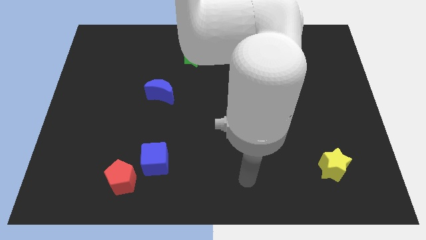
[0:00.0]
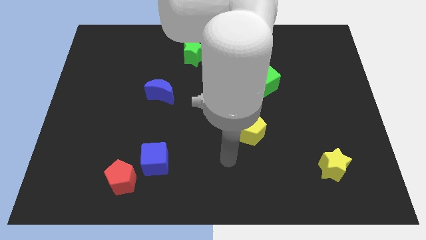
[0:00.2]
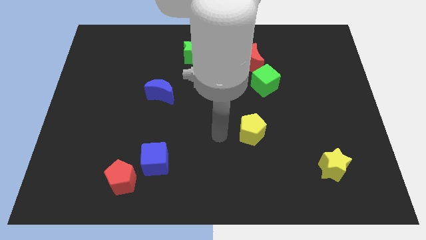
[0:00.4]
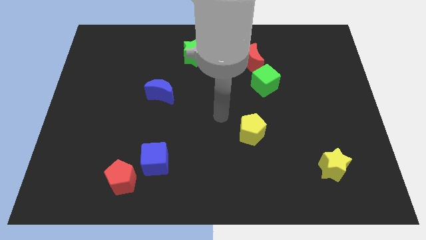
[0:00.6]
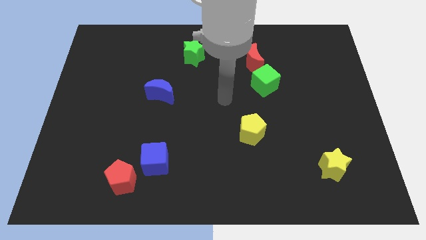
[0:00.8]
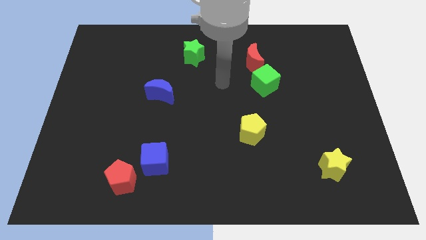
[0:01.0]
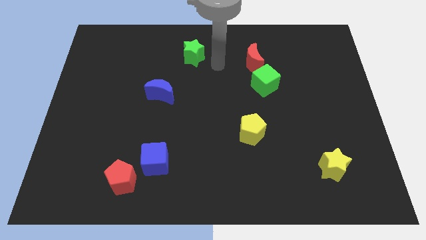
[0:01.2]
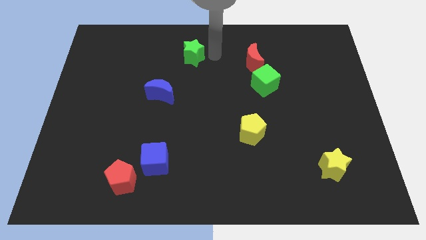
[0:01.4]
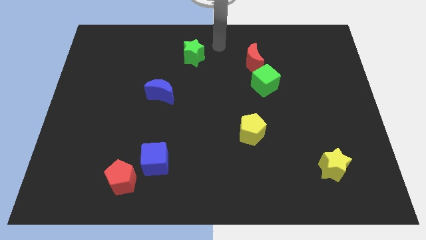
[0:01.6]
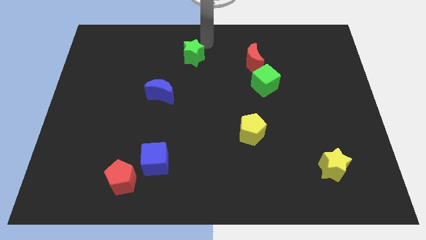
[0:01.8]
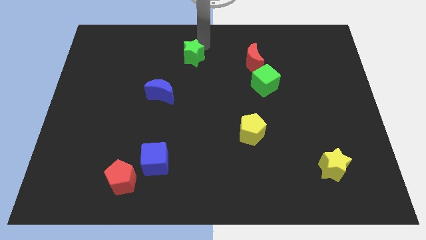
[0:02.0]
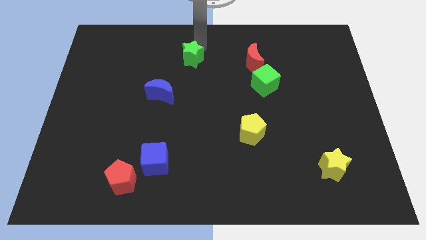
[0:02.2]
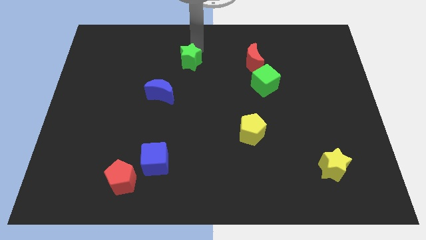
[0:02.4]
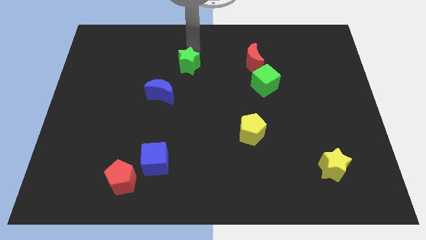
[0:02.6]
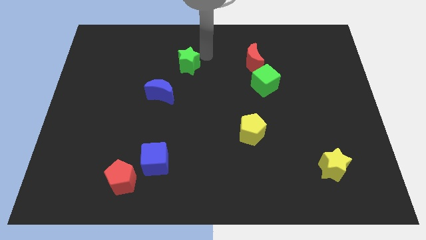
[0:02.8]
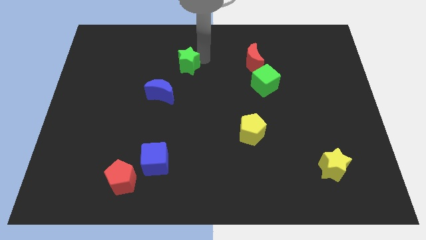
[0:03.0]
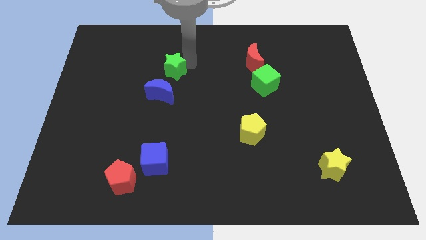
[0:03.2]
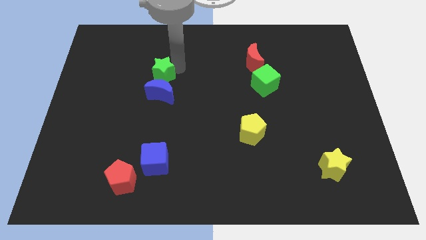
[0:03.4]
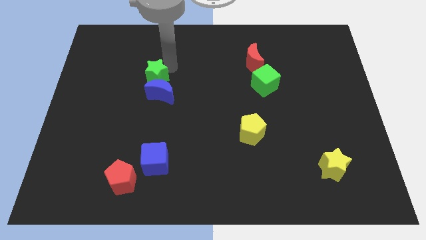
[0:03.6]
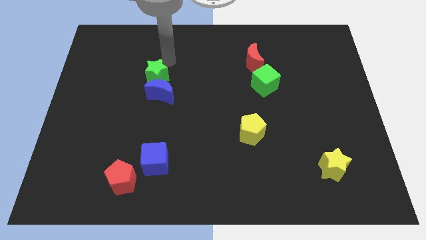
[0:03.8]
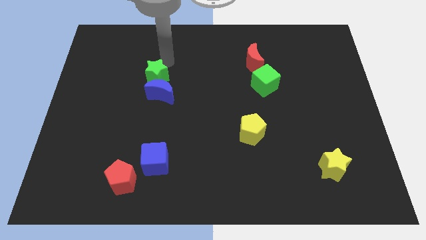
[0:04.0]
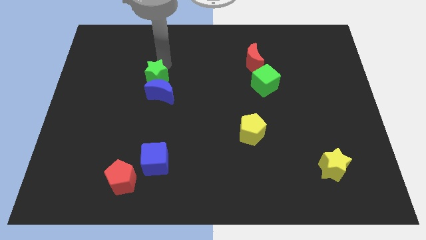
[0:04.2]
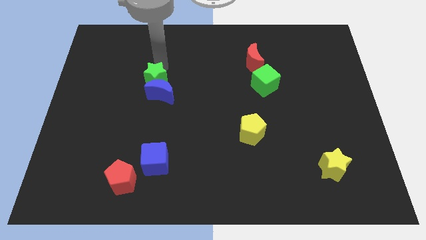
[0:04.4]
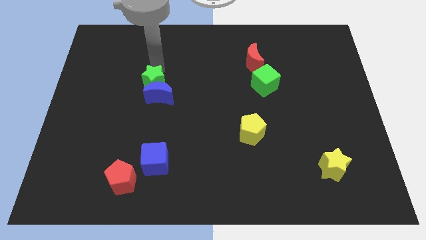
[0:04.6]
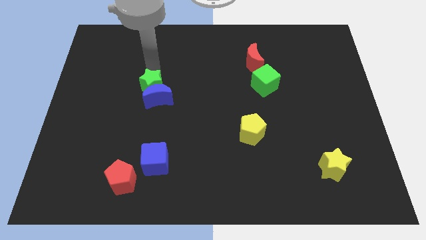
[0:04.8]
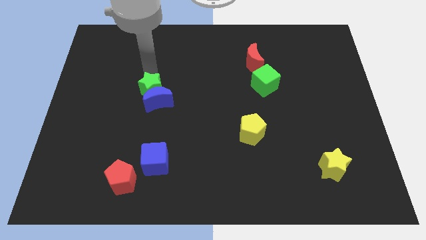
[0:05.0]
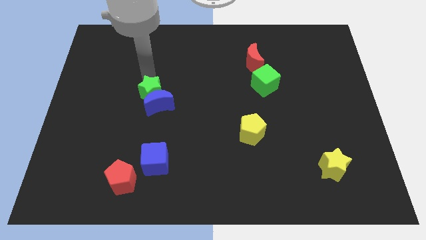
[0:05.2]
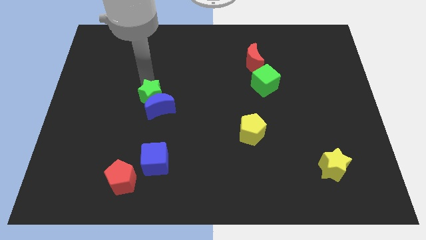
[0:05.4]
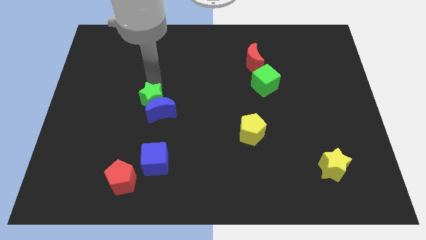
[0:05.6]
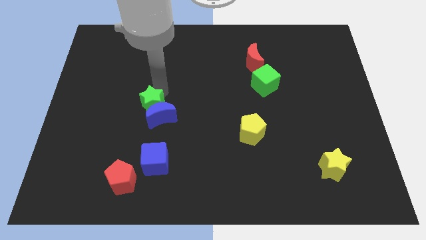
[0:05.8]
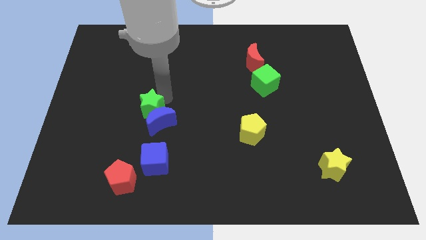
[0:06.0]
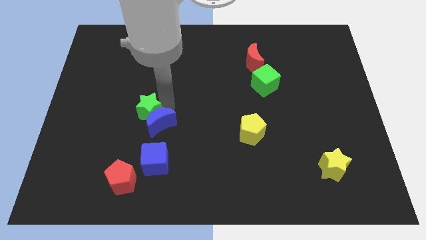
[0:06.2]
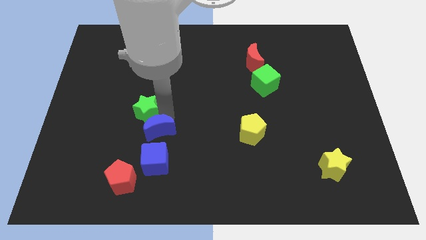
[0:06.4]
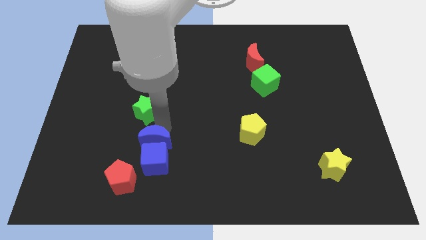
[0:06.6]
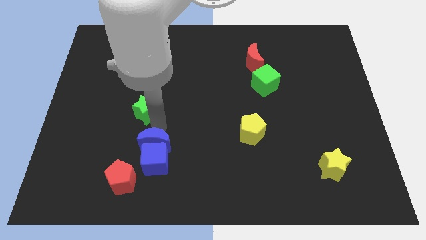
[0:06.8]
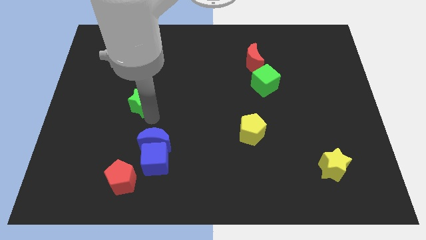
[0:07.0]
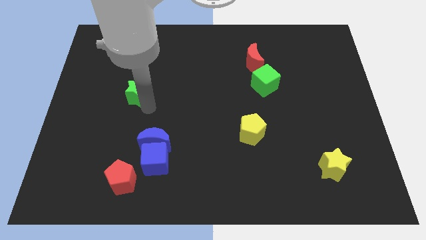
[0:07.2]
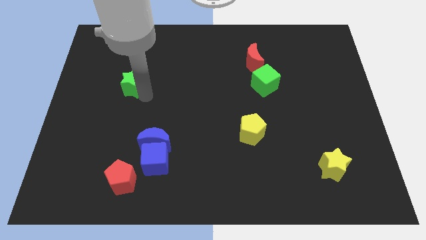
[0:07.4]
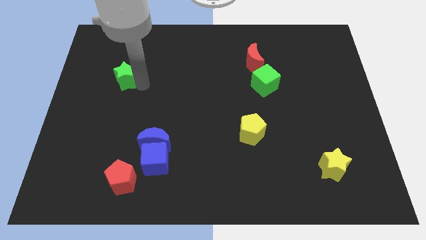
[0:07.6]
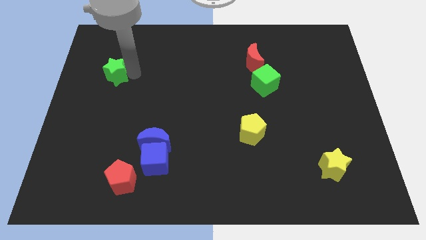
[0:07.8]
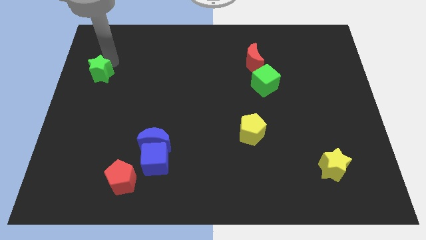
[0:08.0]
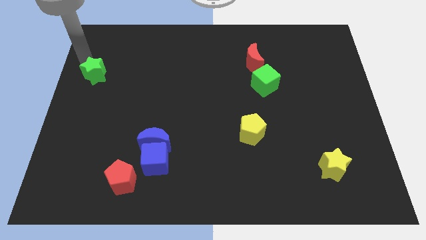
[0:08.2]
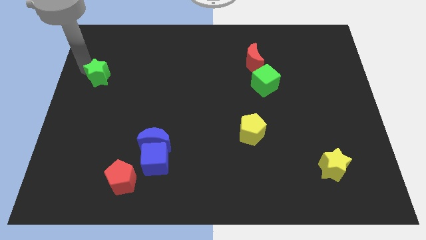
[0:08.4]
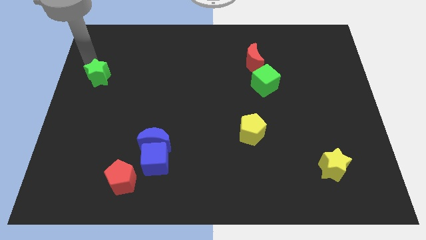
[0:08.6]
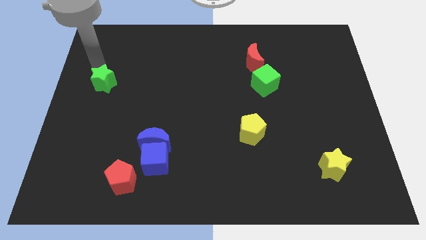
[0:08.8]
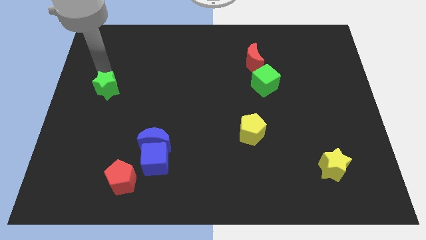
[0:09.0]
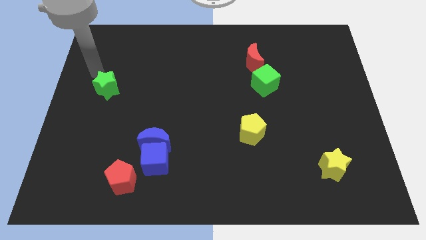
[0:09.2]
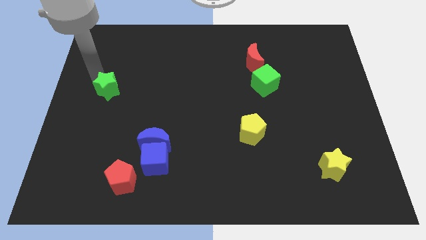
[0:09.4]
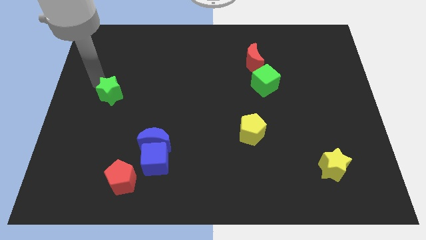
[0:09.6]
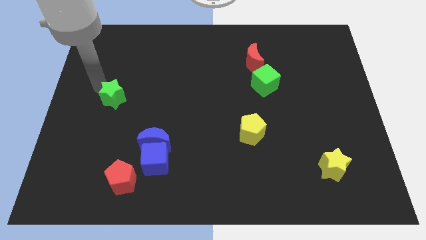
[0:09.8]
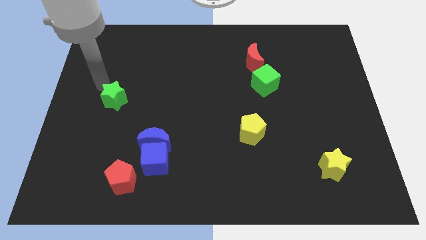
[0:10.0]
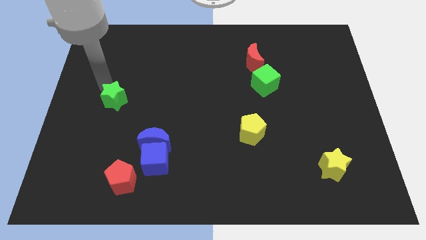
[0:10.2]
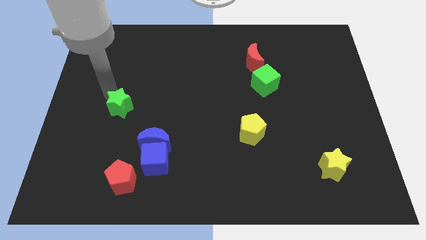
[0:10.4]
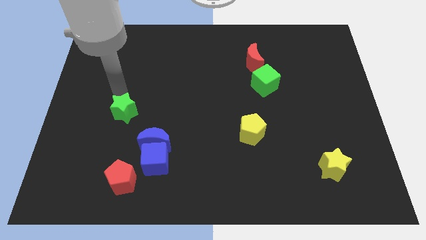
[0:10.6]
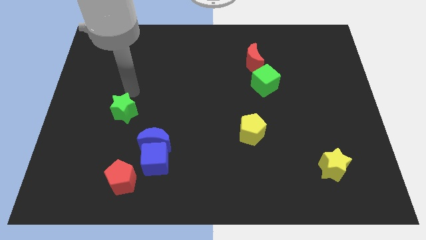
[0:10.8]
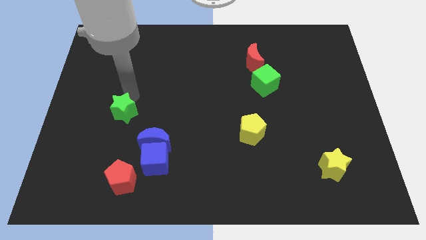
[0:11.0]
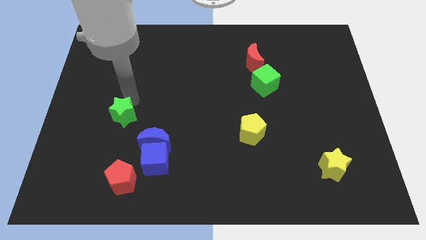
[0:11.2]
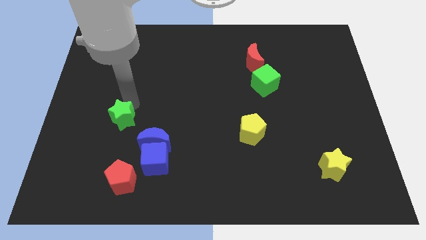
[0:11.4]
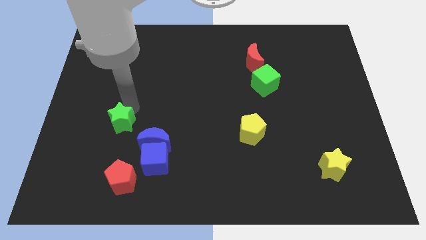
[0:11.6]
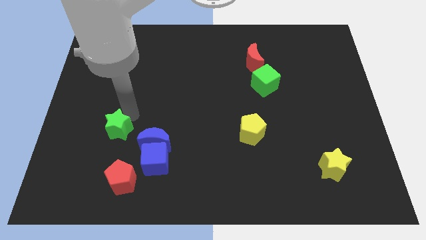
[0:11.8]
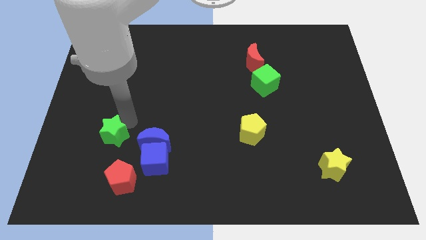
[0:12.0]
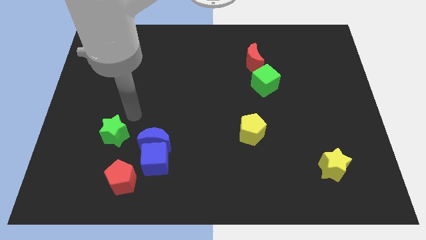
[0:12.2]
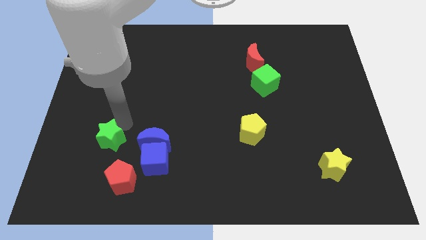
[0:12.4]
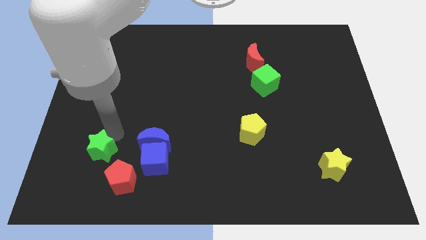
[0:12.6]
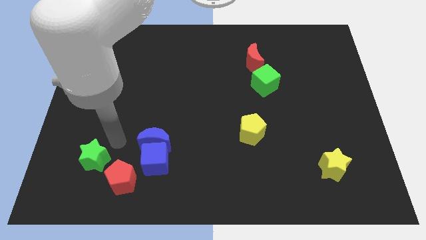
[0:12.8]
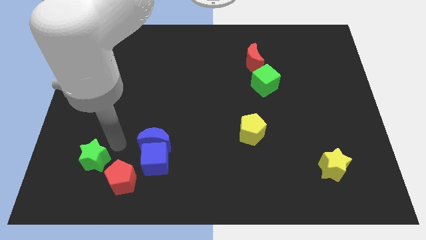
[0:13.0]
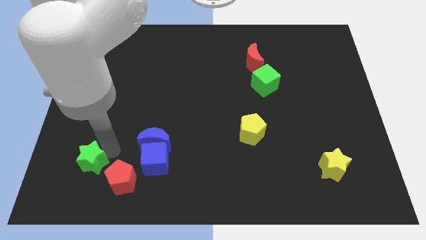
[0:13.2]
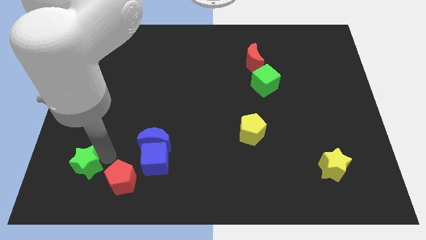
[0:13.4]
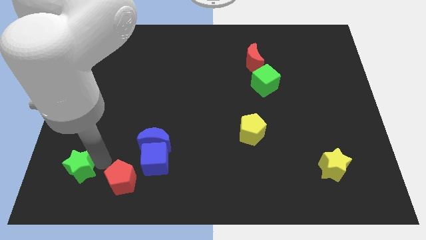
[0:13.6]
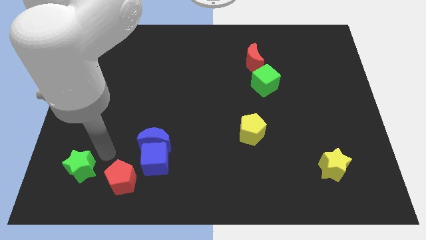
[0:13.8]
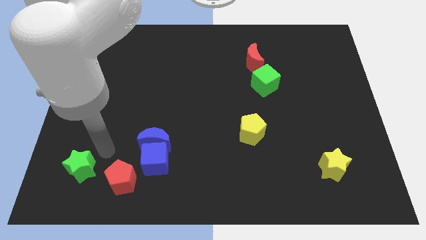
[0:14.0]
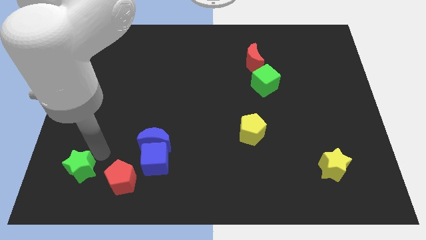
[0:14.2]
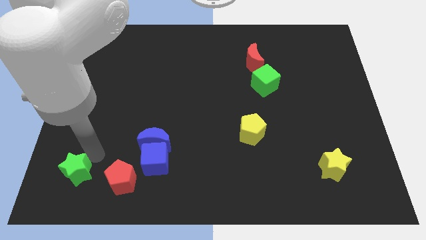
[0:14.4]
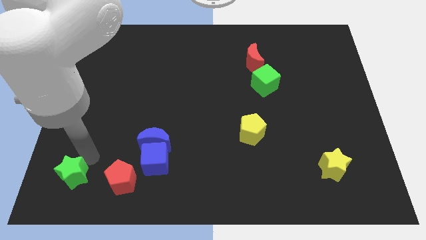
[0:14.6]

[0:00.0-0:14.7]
move the green star to the bottom left corner
